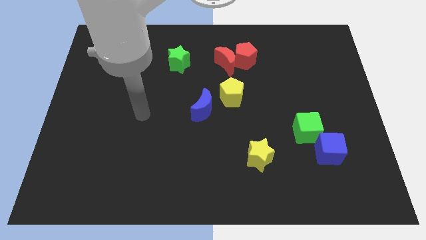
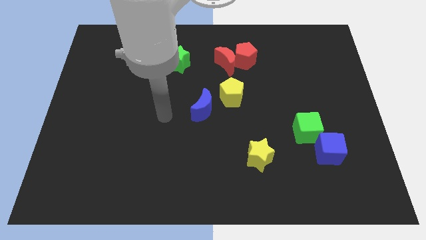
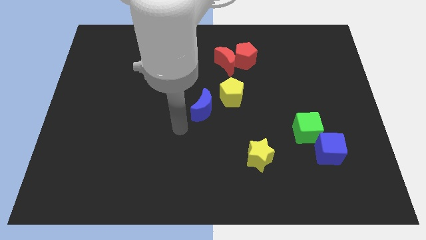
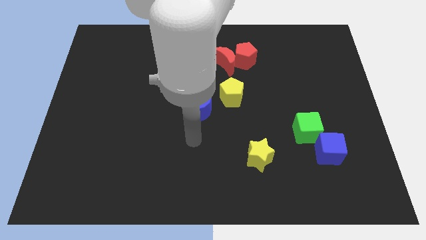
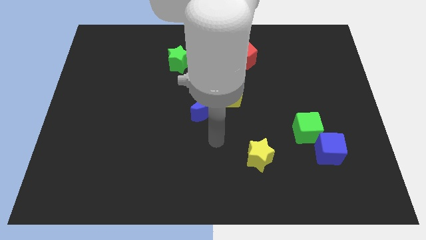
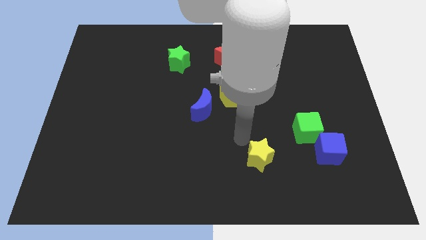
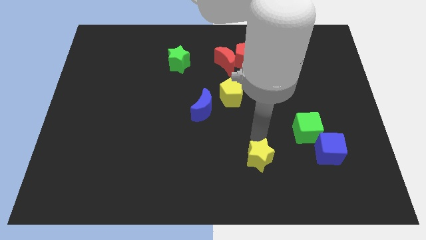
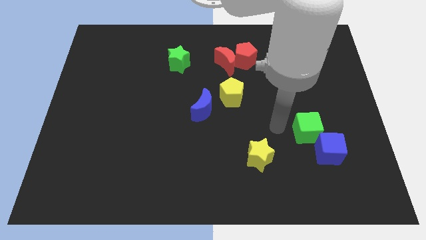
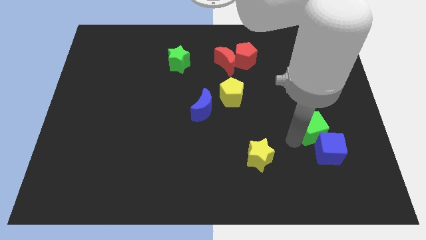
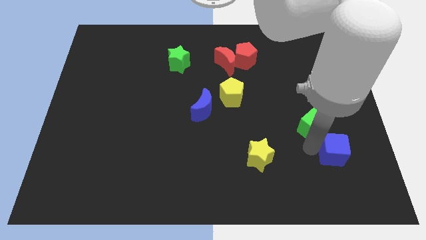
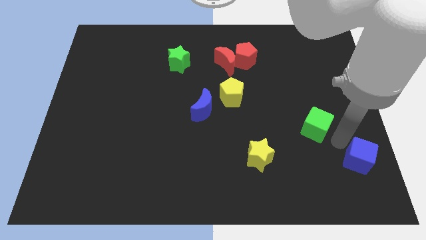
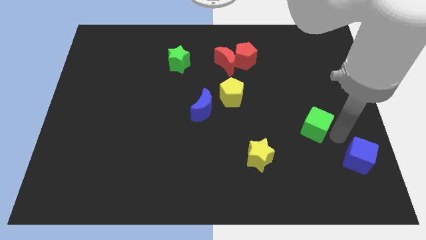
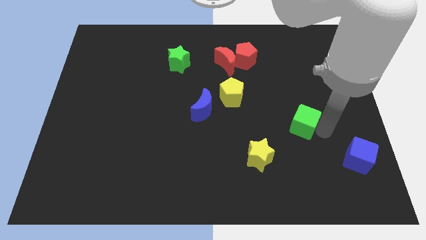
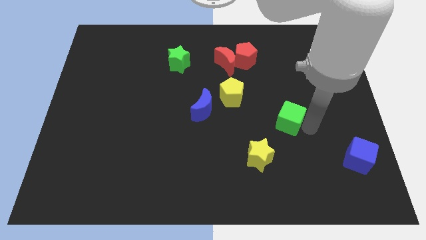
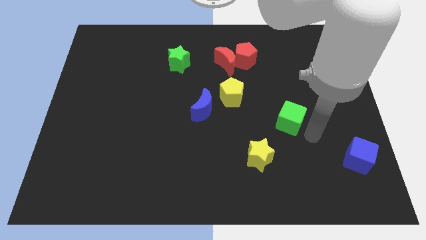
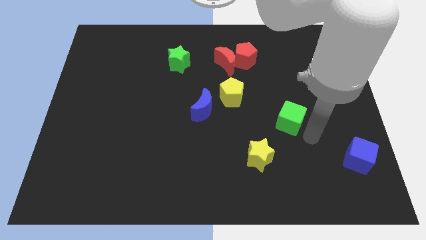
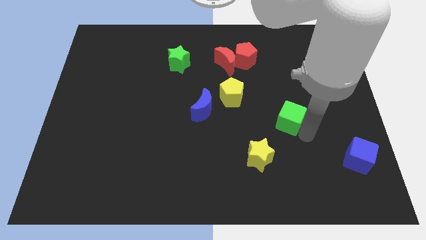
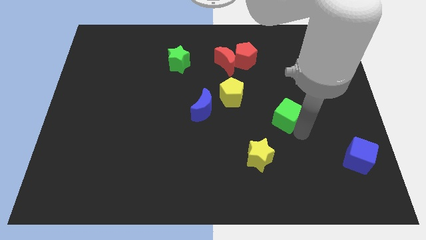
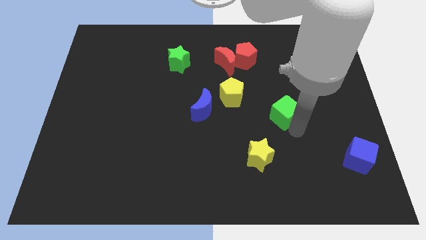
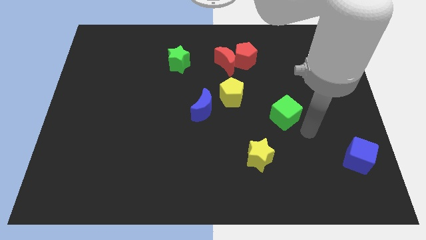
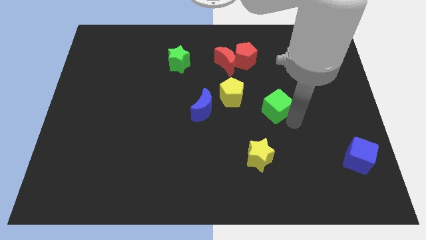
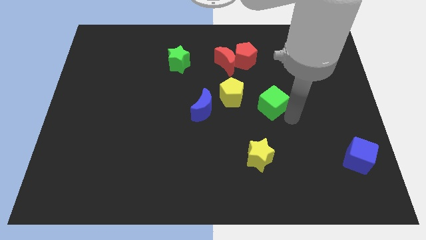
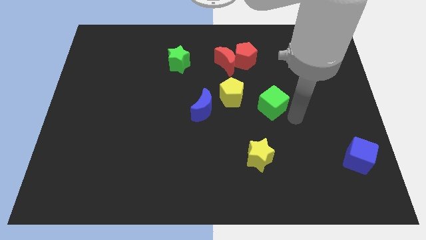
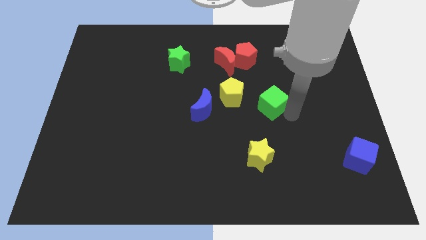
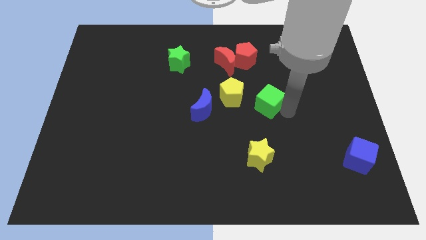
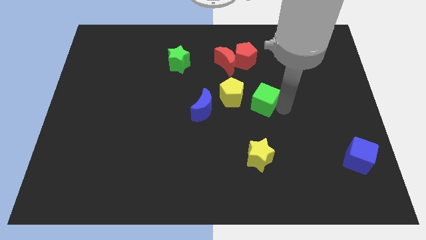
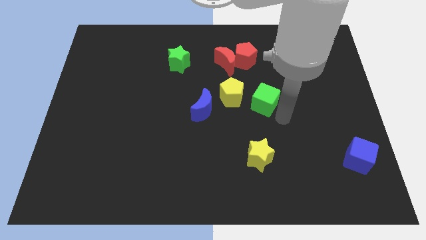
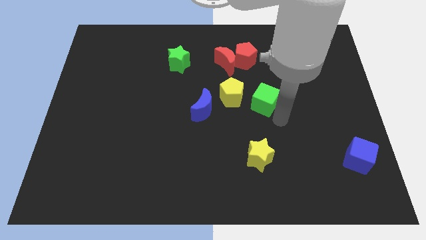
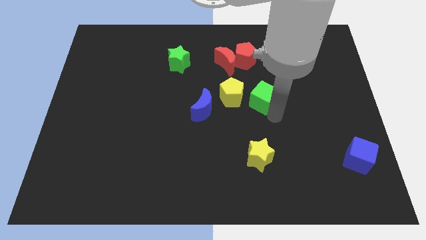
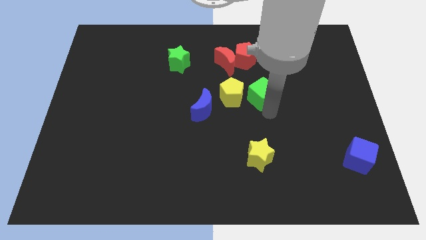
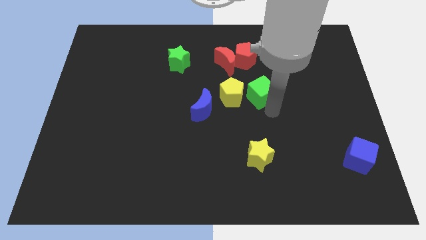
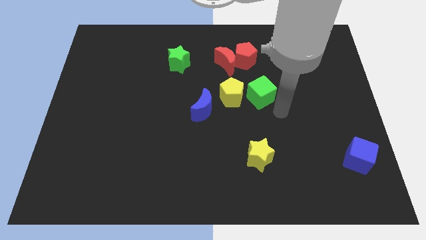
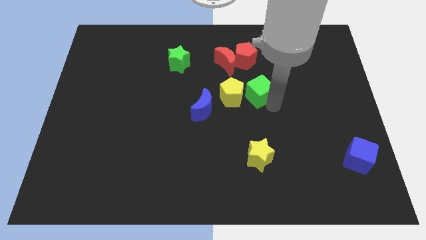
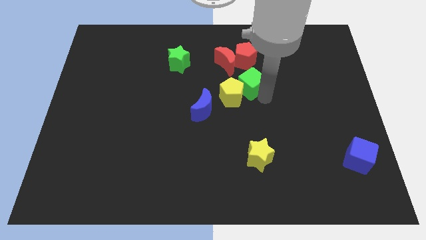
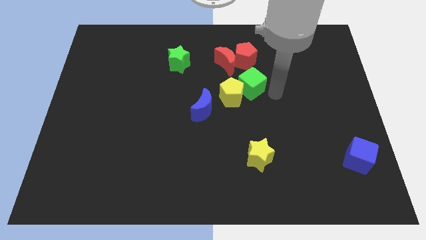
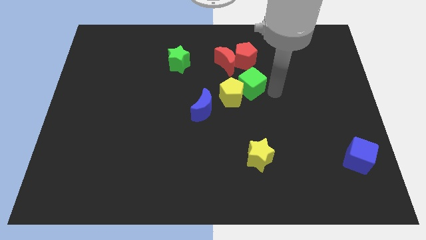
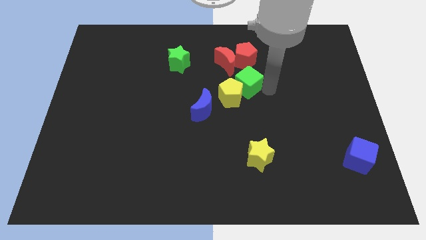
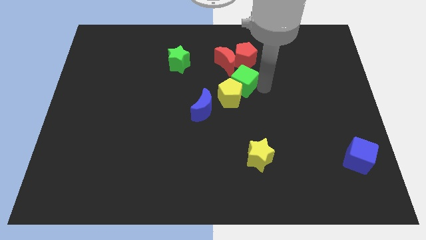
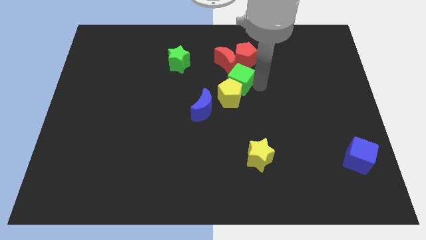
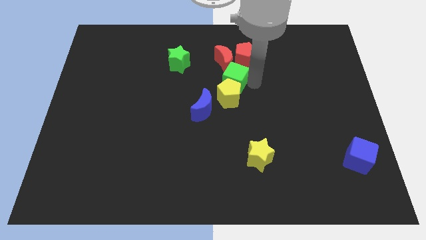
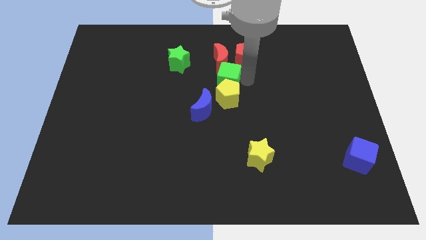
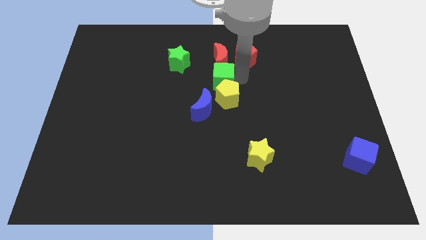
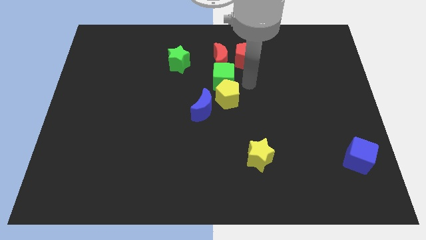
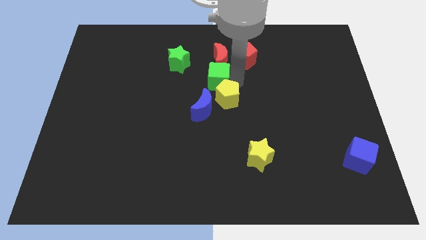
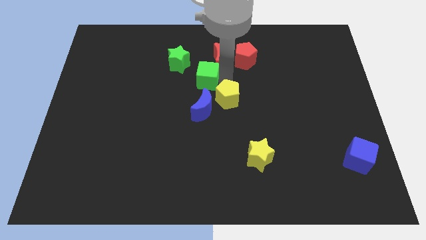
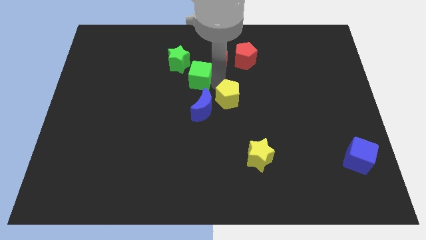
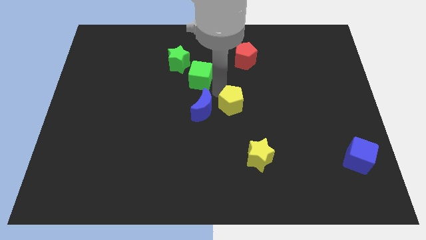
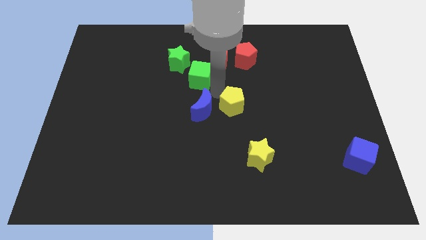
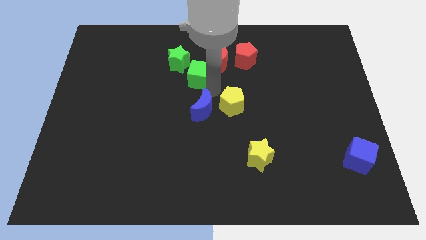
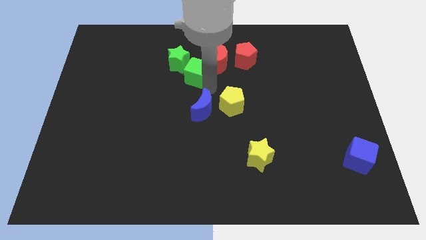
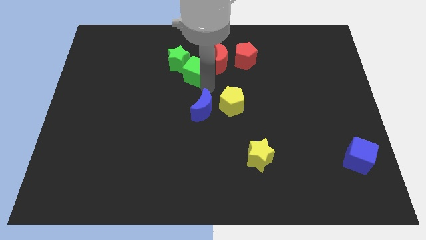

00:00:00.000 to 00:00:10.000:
push the green cube next to the green star

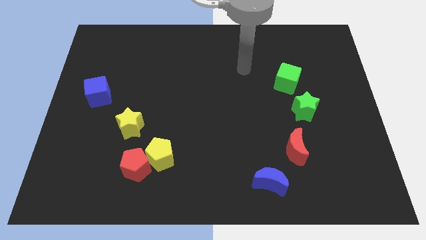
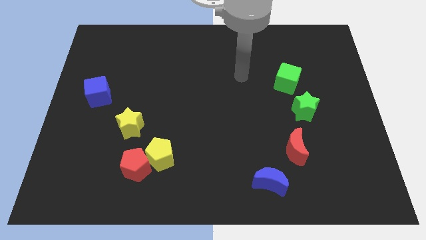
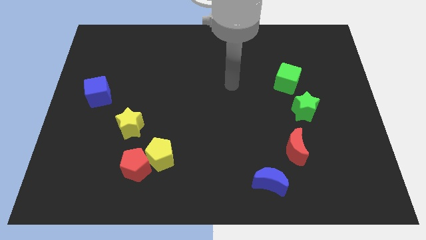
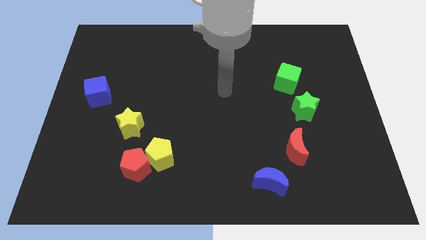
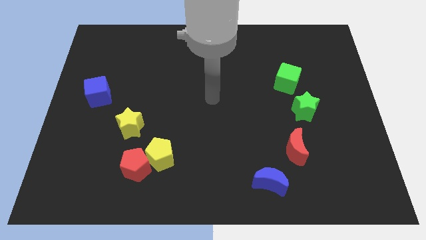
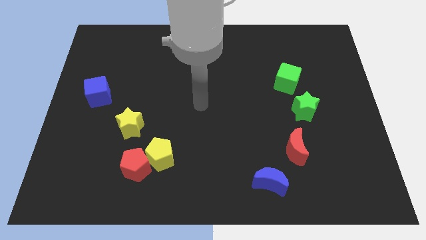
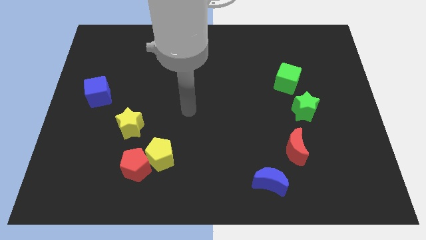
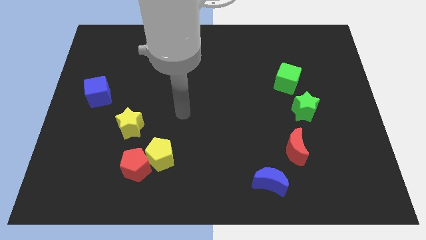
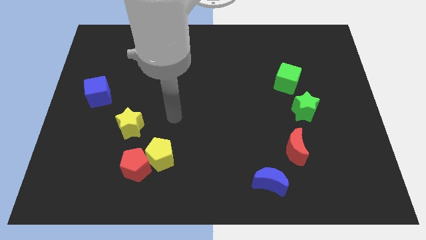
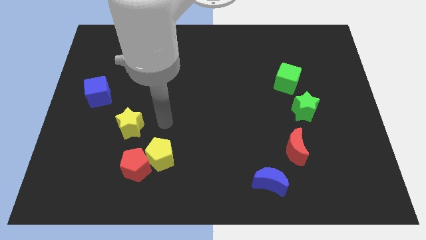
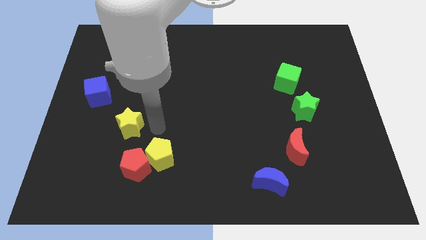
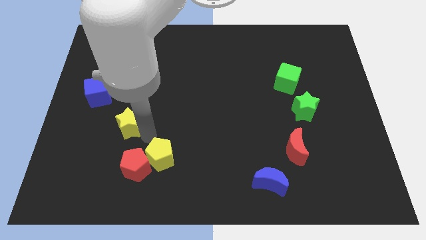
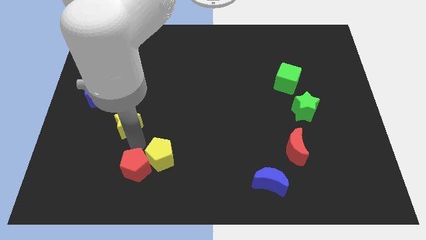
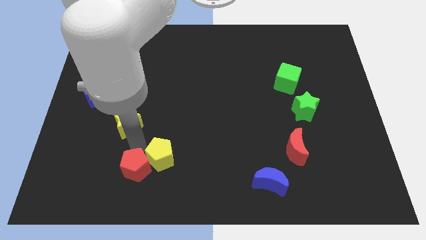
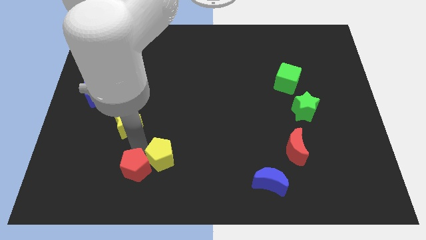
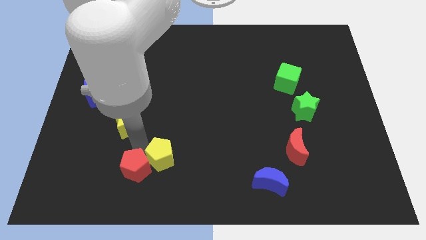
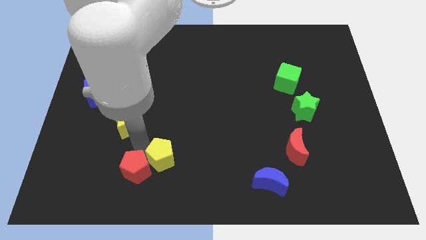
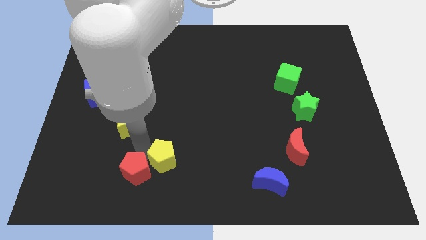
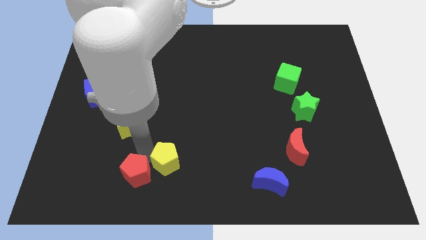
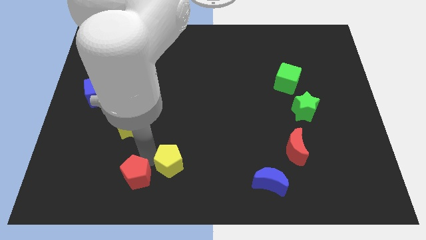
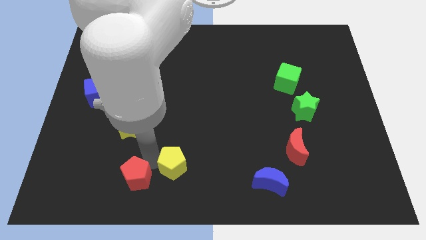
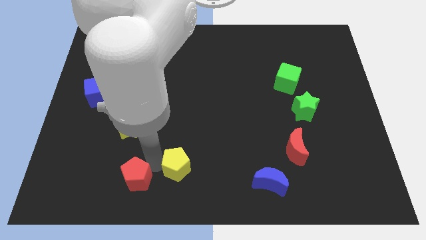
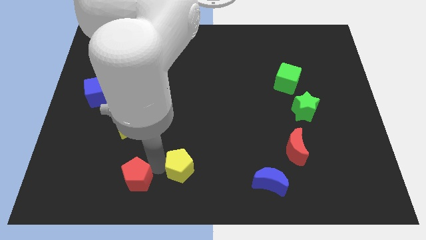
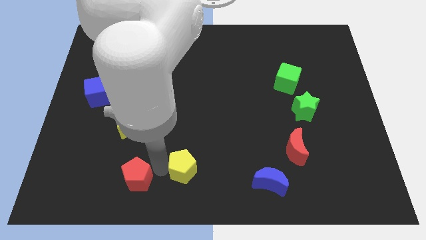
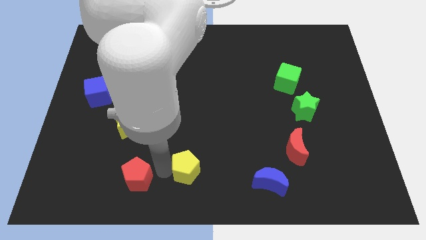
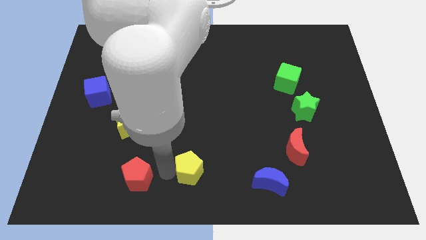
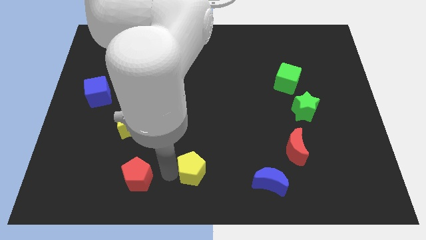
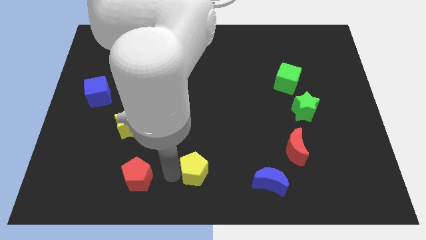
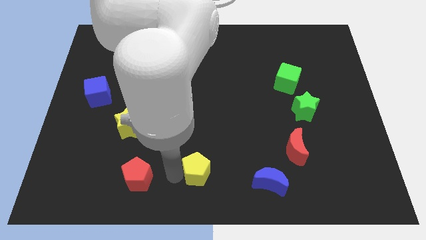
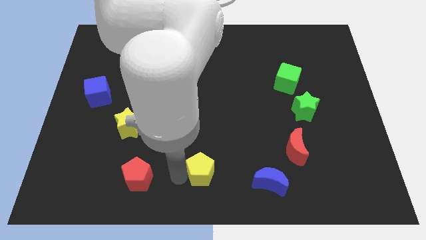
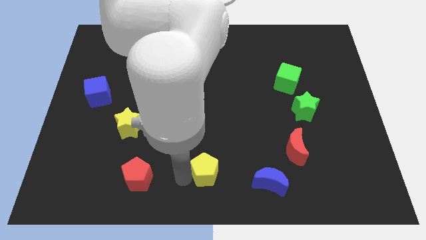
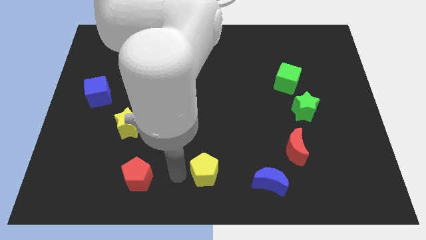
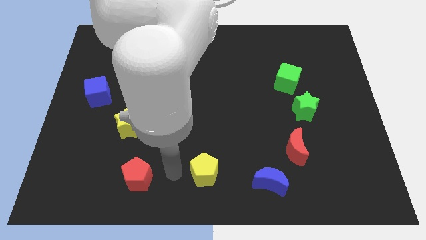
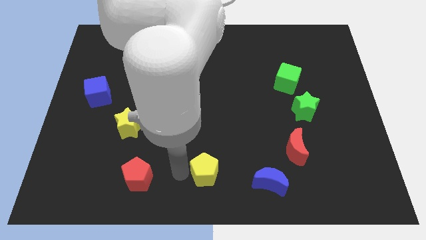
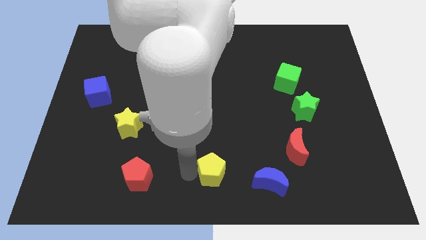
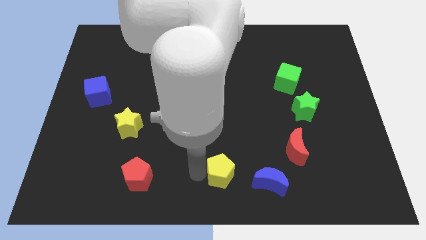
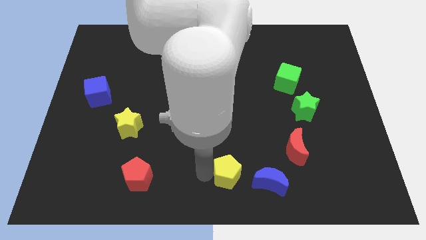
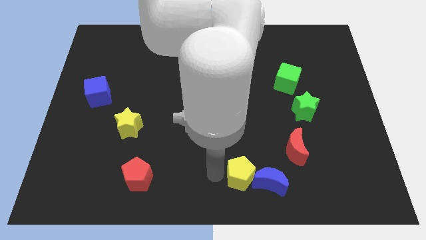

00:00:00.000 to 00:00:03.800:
put the yellow pentagon towards the blue moon
